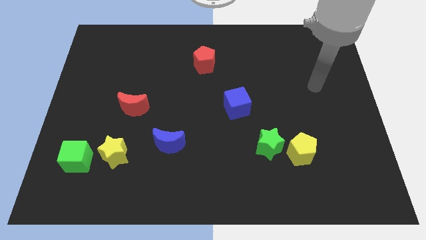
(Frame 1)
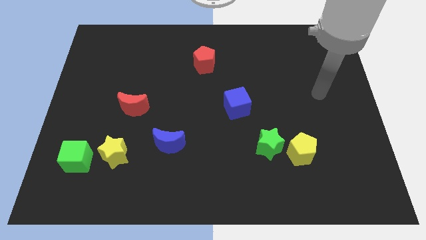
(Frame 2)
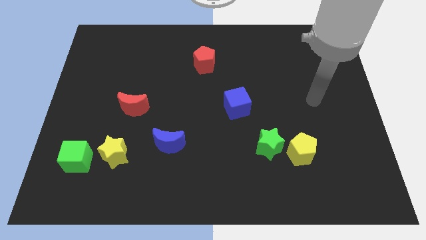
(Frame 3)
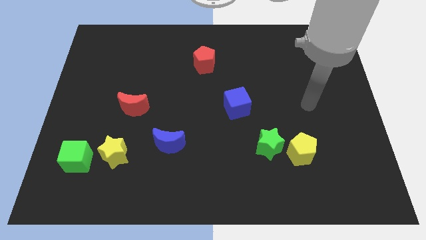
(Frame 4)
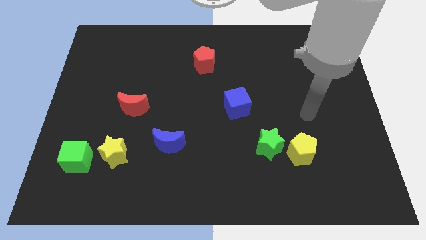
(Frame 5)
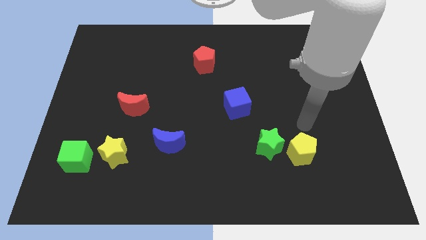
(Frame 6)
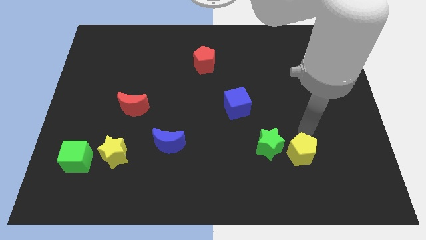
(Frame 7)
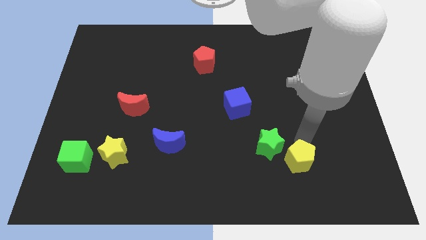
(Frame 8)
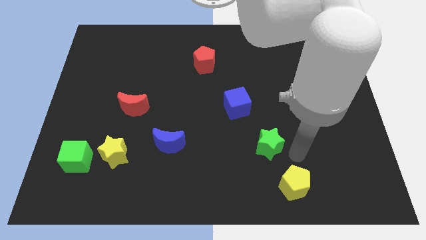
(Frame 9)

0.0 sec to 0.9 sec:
separate the green star from the yellow pentagon

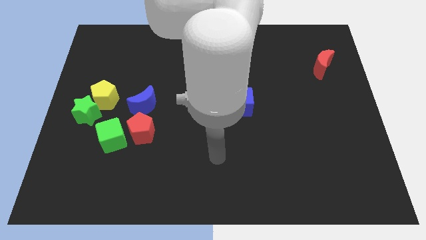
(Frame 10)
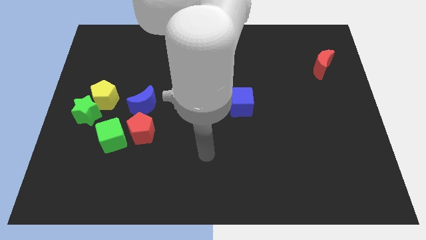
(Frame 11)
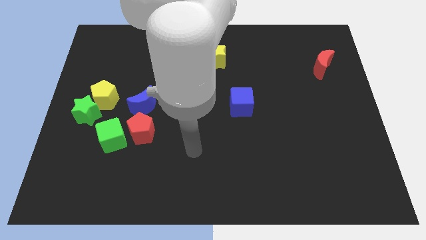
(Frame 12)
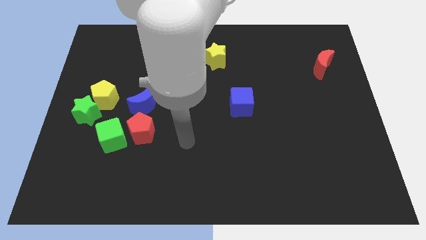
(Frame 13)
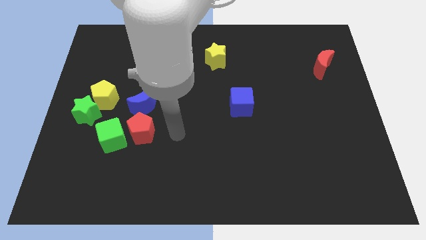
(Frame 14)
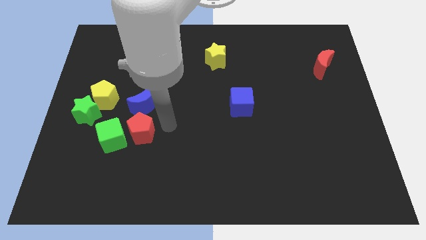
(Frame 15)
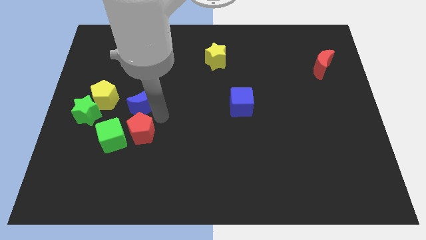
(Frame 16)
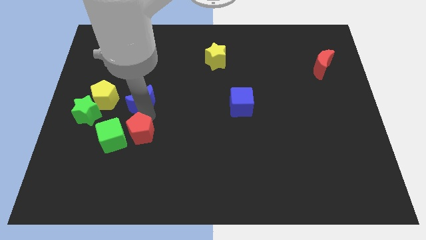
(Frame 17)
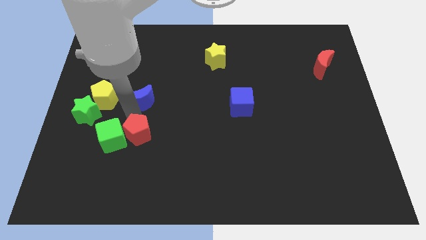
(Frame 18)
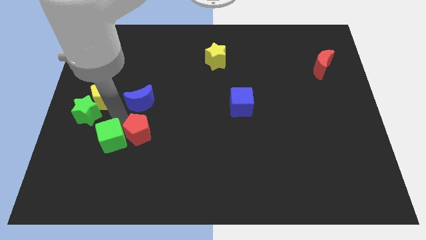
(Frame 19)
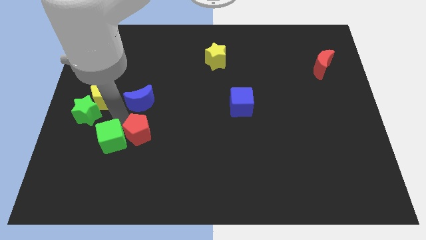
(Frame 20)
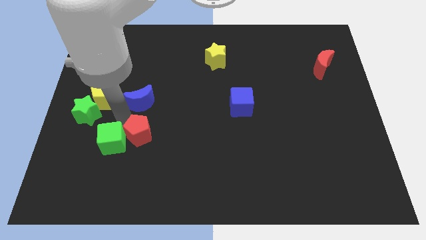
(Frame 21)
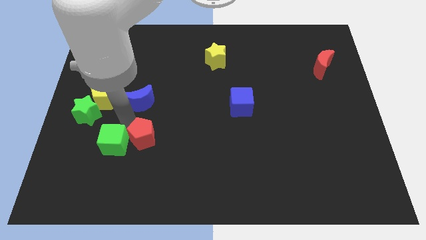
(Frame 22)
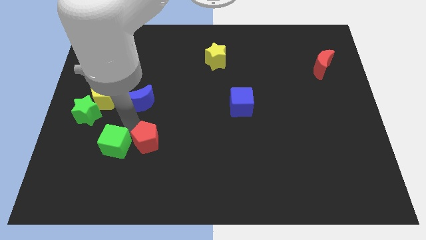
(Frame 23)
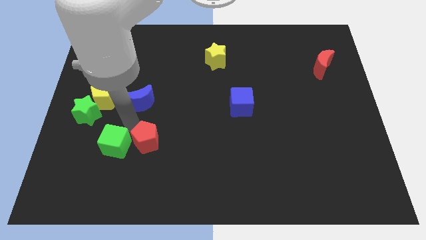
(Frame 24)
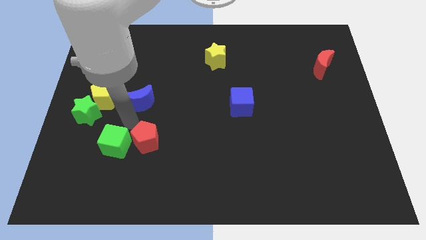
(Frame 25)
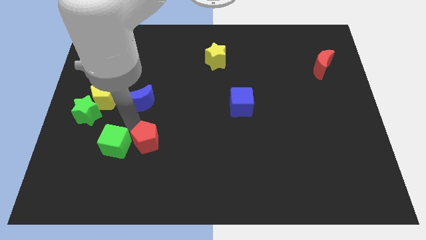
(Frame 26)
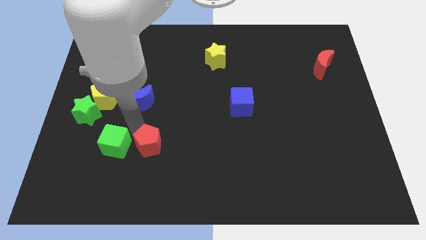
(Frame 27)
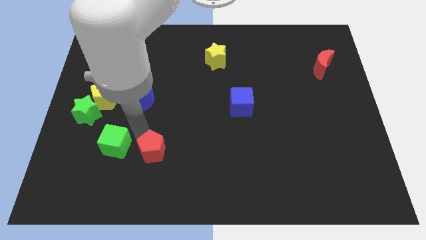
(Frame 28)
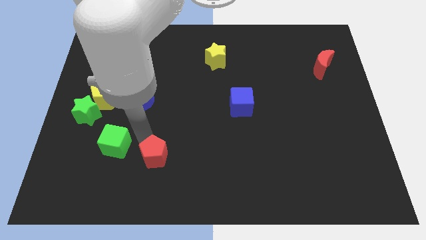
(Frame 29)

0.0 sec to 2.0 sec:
pull the red pentagon apart from the green cube and blue moon

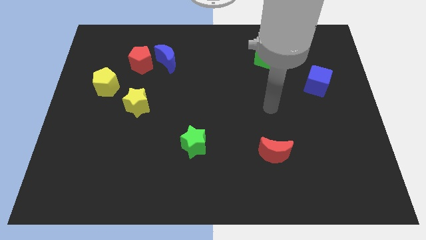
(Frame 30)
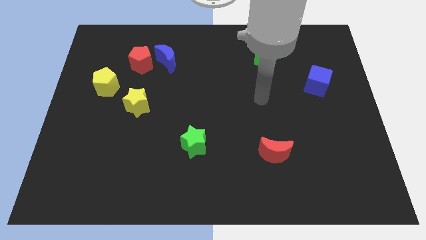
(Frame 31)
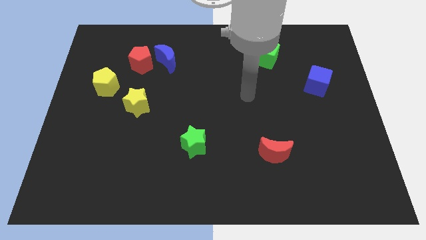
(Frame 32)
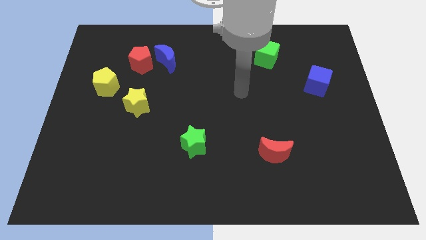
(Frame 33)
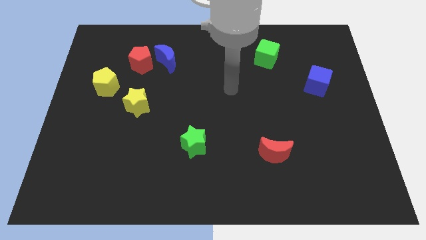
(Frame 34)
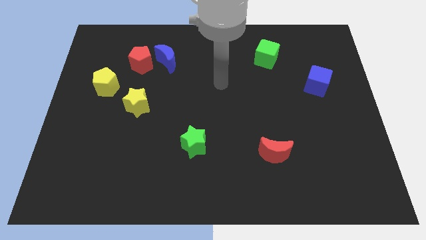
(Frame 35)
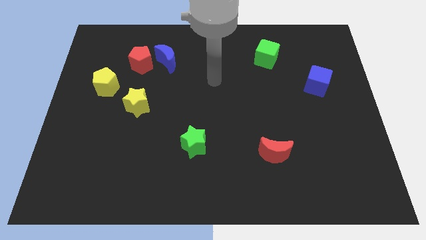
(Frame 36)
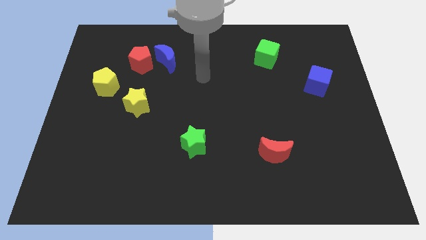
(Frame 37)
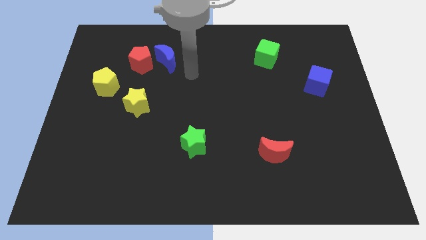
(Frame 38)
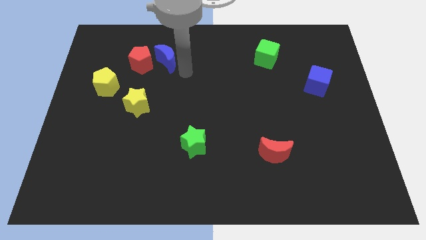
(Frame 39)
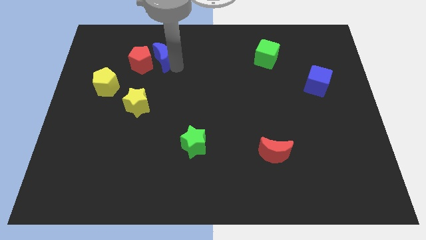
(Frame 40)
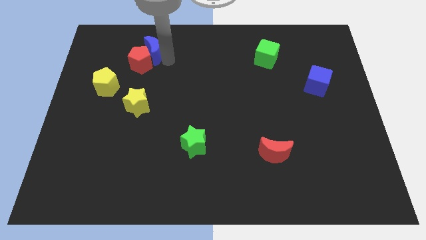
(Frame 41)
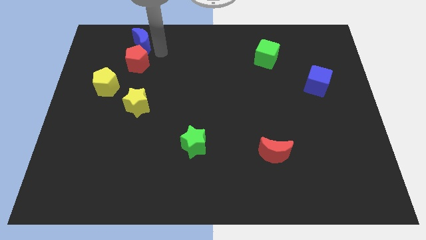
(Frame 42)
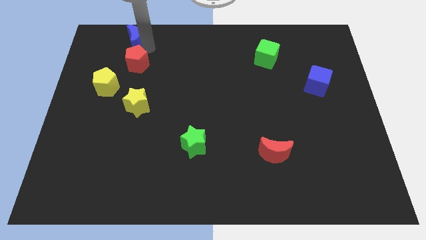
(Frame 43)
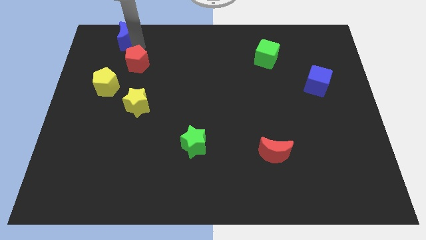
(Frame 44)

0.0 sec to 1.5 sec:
move the red pentagon away from the blue moon

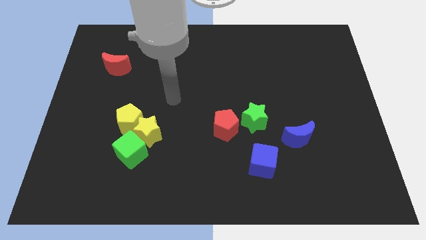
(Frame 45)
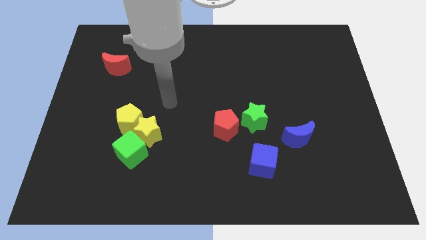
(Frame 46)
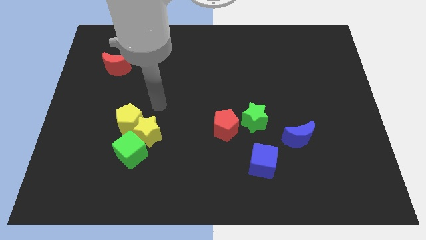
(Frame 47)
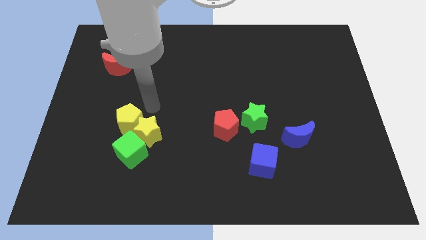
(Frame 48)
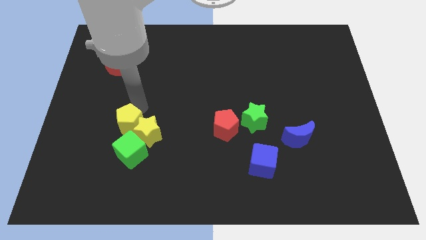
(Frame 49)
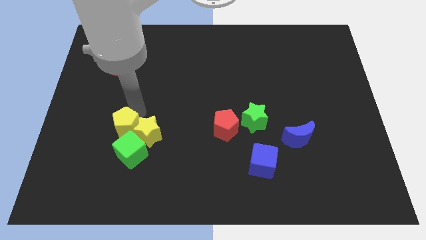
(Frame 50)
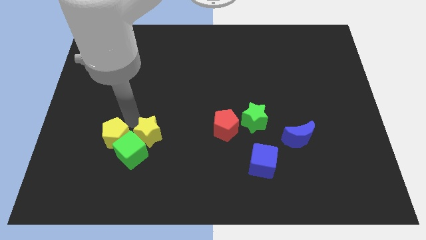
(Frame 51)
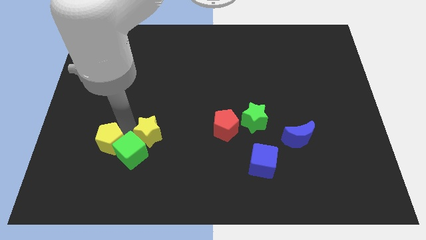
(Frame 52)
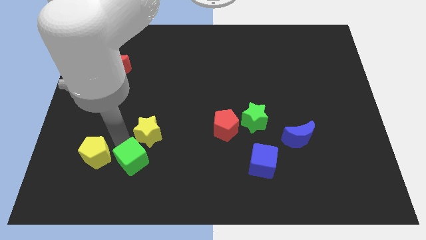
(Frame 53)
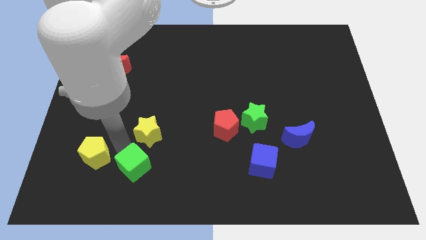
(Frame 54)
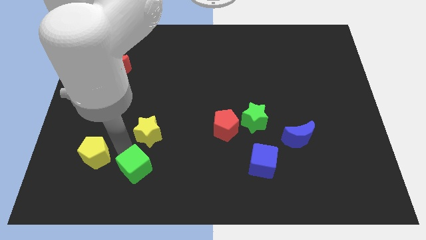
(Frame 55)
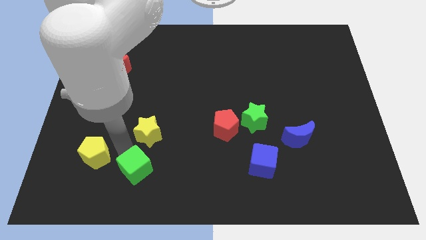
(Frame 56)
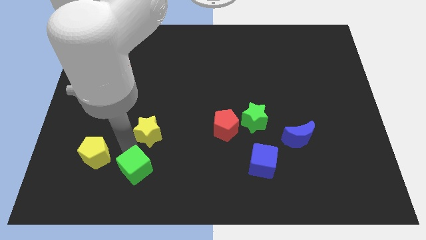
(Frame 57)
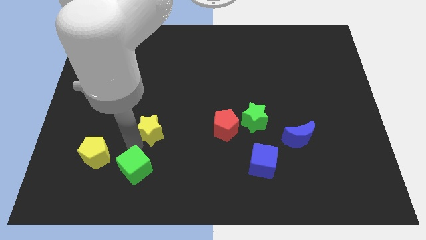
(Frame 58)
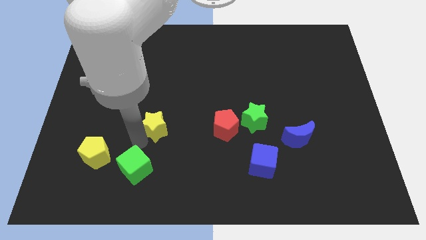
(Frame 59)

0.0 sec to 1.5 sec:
move the yellow star away from the yellow pentagon and green cube

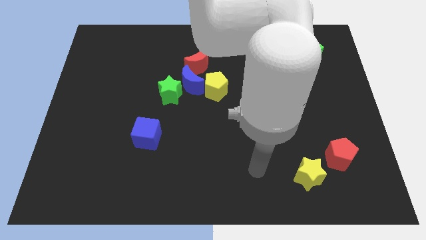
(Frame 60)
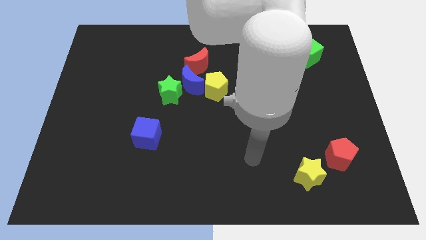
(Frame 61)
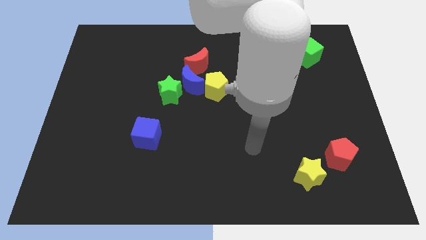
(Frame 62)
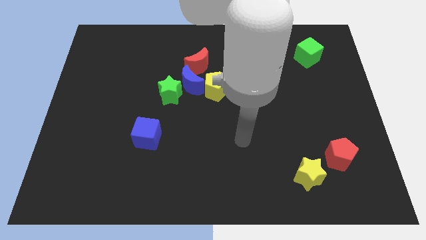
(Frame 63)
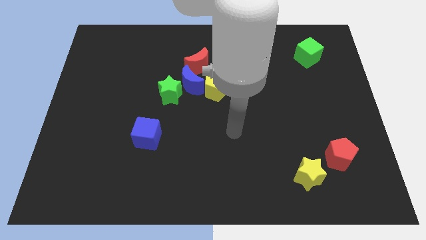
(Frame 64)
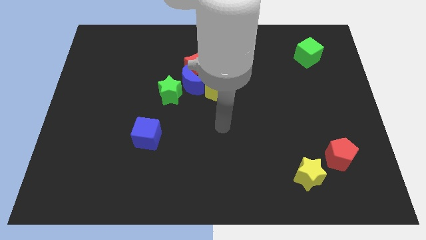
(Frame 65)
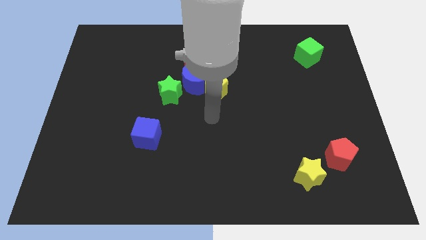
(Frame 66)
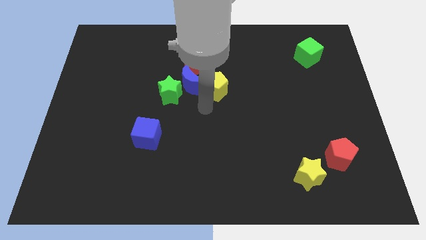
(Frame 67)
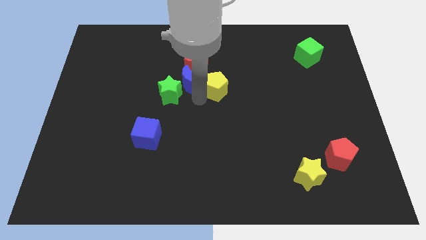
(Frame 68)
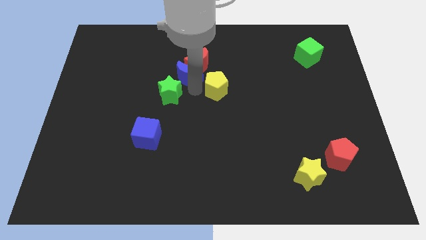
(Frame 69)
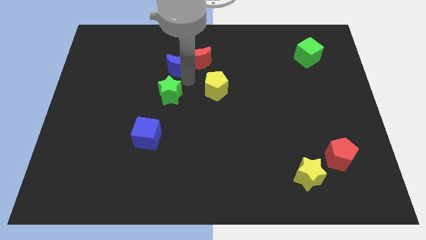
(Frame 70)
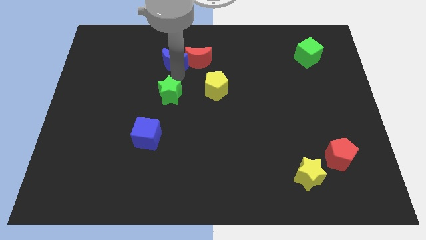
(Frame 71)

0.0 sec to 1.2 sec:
move the green star away from the blue moon

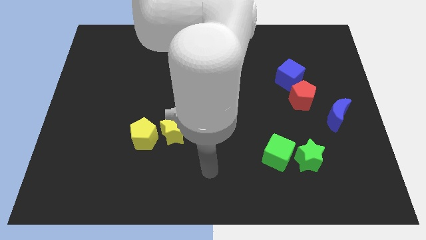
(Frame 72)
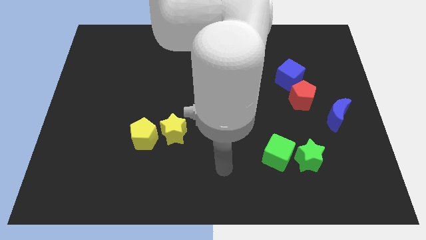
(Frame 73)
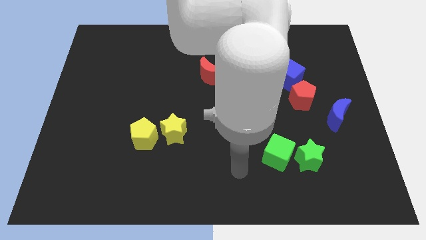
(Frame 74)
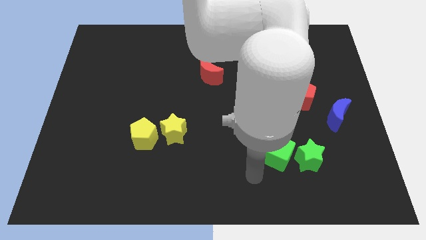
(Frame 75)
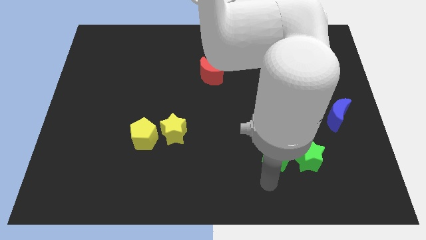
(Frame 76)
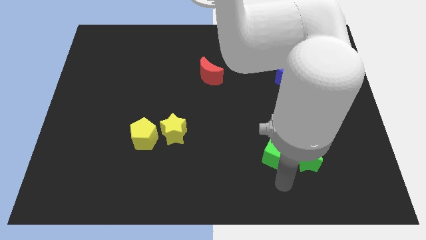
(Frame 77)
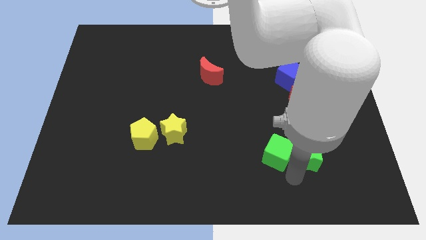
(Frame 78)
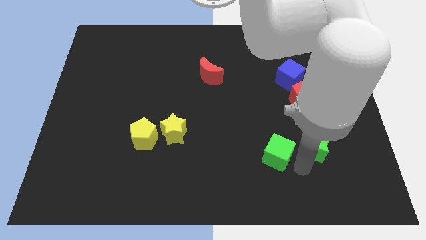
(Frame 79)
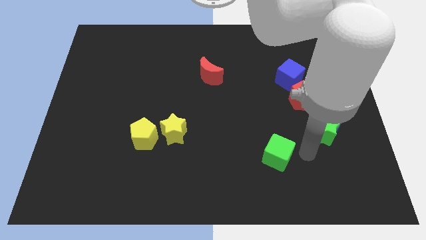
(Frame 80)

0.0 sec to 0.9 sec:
move the green cube away from the green star

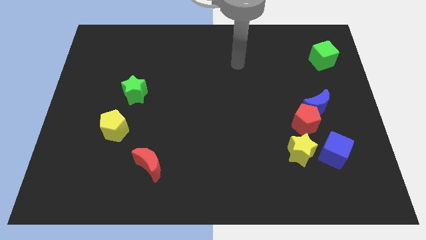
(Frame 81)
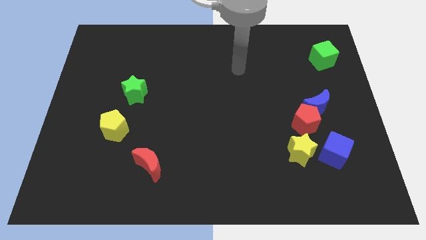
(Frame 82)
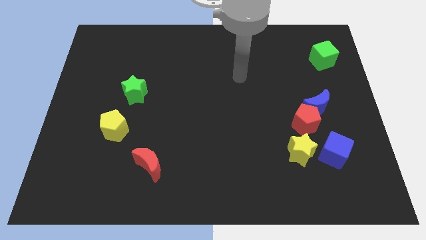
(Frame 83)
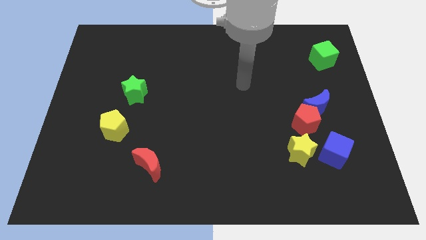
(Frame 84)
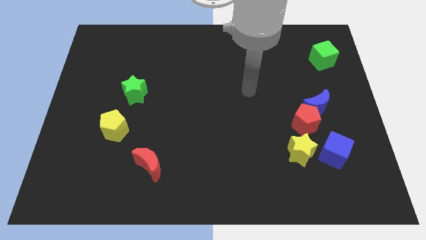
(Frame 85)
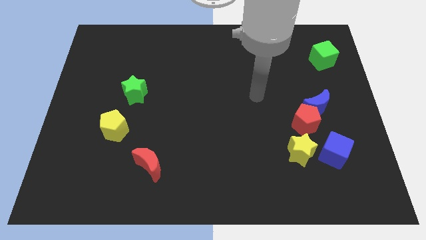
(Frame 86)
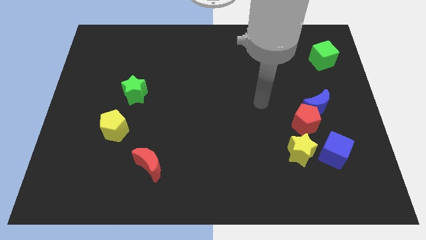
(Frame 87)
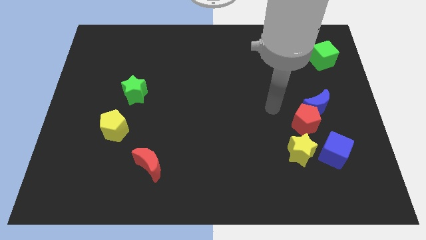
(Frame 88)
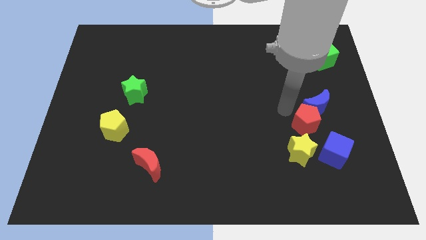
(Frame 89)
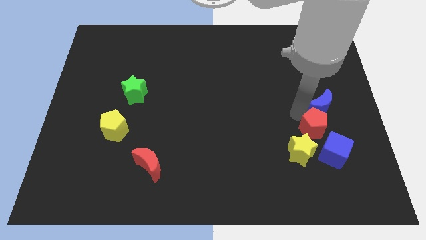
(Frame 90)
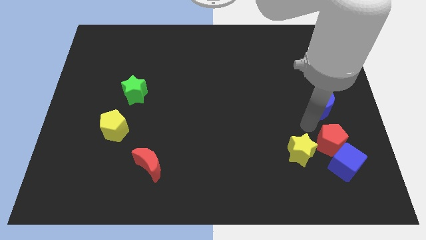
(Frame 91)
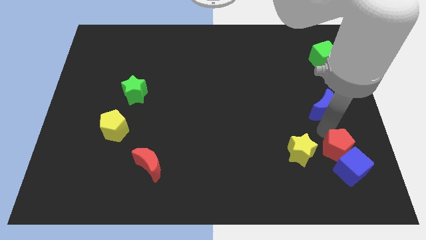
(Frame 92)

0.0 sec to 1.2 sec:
move the blue moon away from the red pentagon
